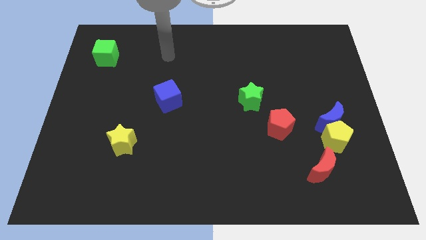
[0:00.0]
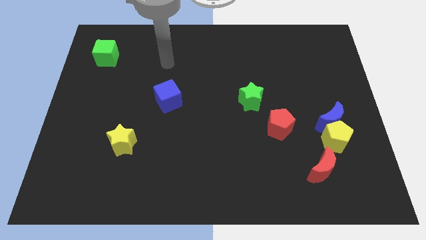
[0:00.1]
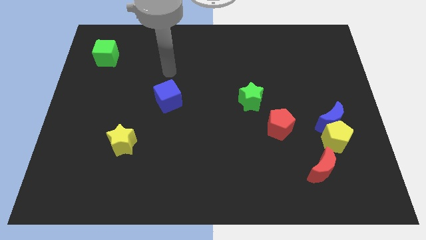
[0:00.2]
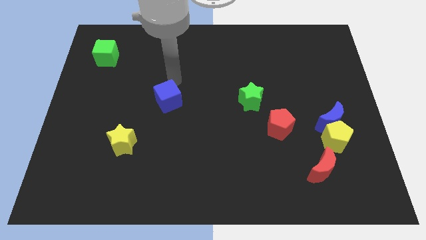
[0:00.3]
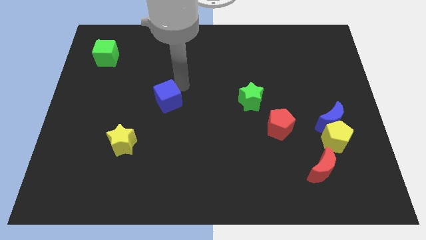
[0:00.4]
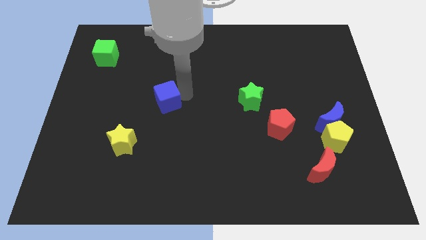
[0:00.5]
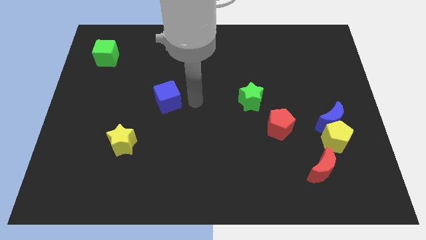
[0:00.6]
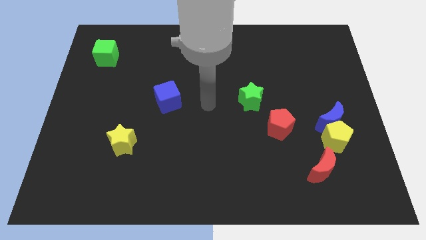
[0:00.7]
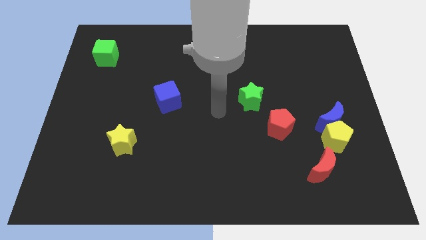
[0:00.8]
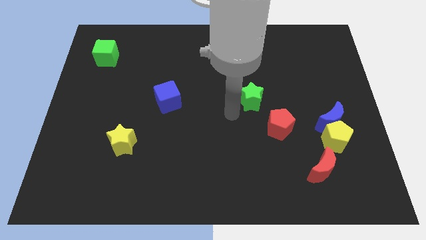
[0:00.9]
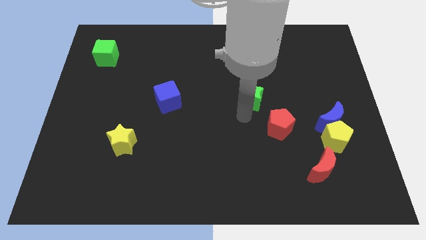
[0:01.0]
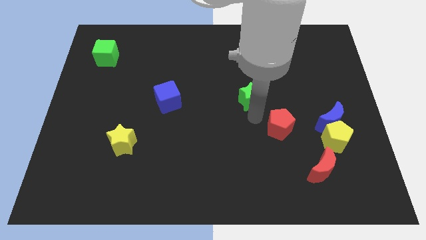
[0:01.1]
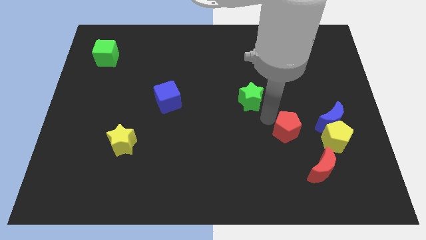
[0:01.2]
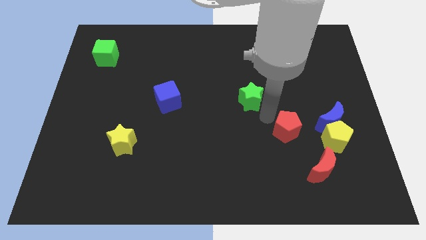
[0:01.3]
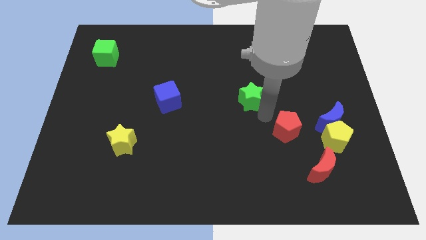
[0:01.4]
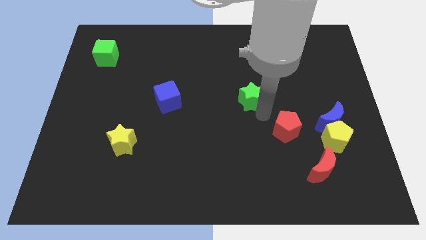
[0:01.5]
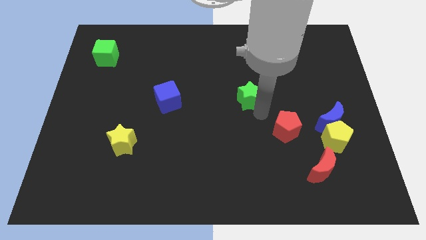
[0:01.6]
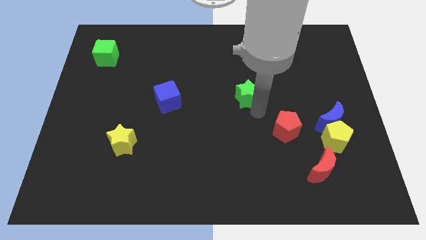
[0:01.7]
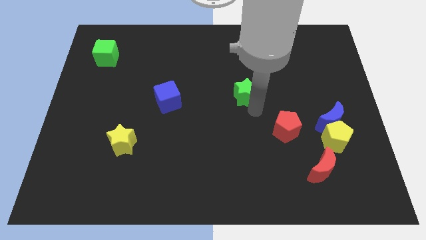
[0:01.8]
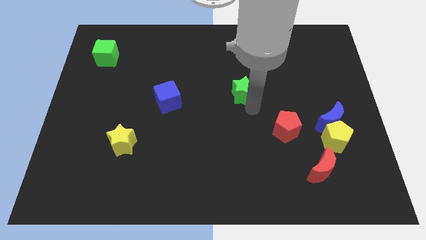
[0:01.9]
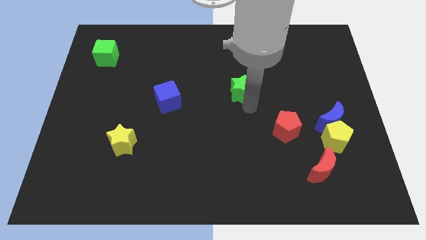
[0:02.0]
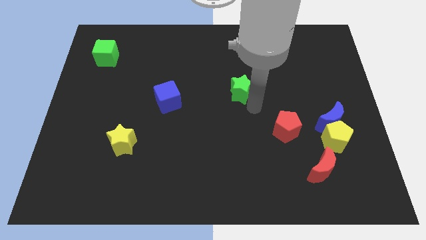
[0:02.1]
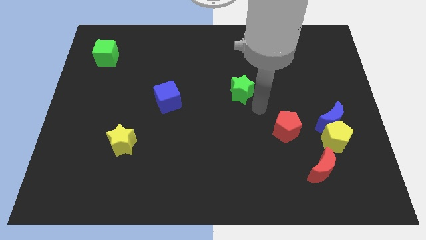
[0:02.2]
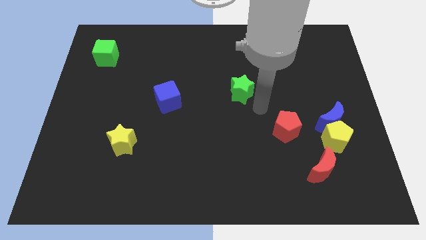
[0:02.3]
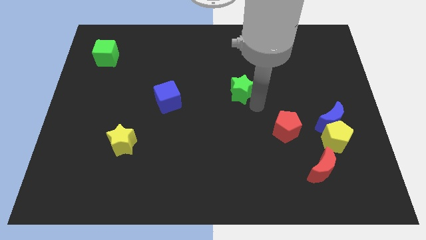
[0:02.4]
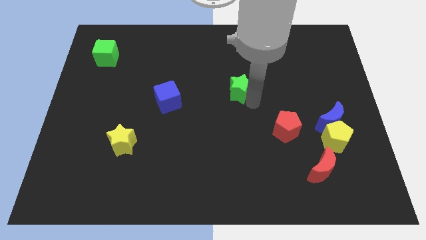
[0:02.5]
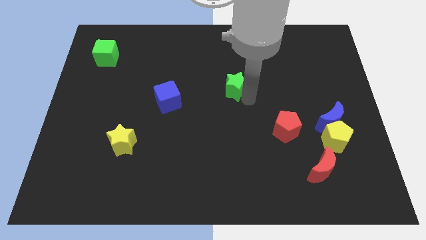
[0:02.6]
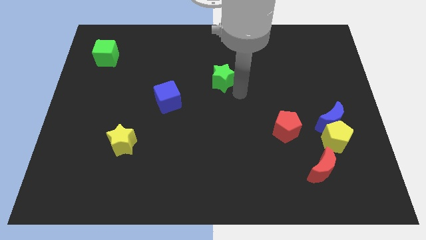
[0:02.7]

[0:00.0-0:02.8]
move the green star somewhat up and to the left

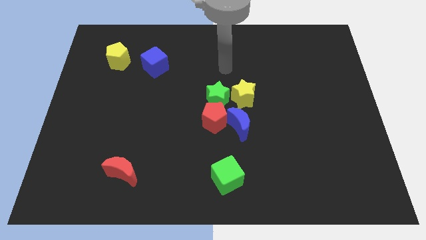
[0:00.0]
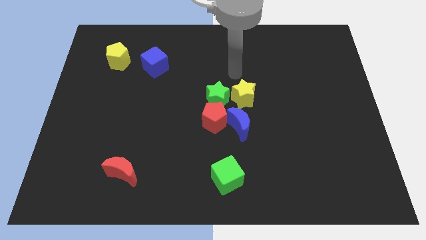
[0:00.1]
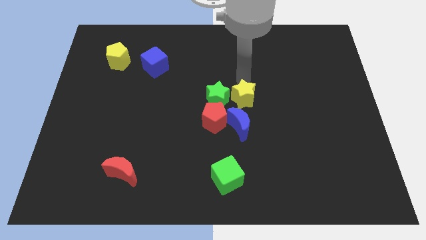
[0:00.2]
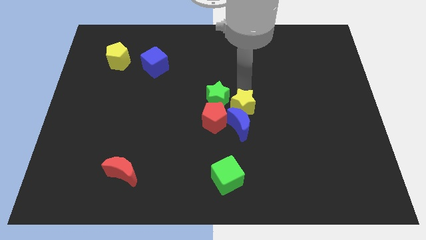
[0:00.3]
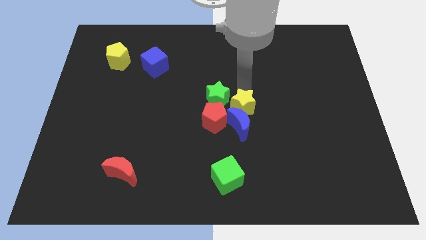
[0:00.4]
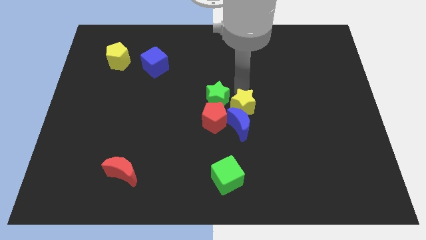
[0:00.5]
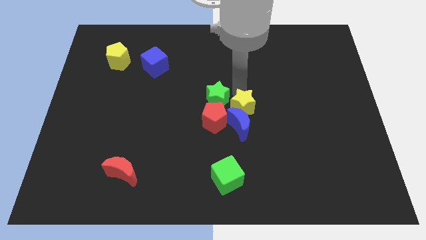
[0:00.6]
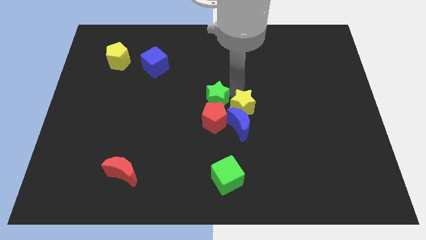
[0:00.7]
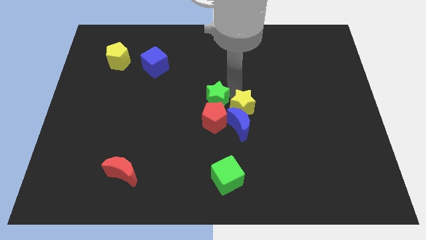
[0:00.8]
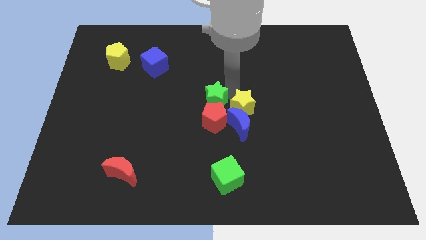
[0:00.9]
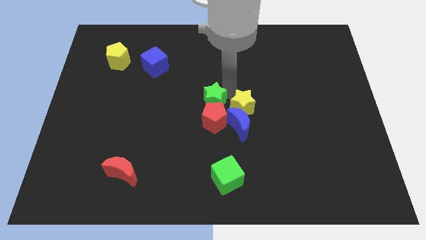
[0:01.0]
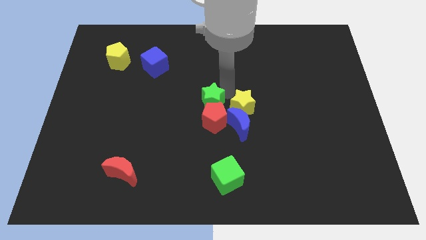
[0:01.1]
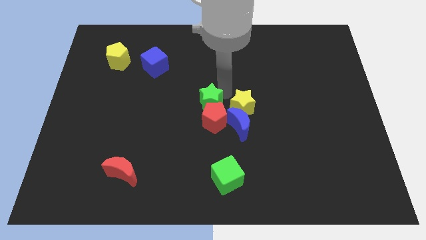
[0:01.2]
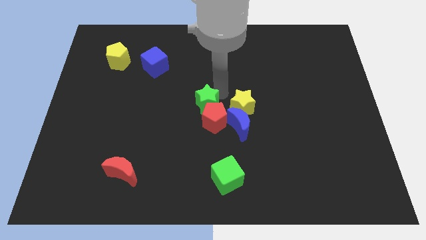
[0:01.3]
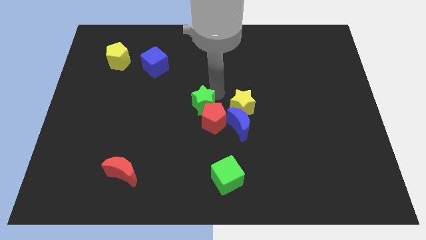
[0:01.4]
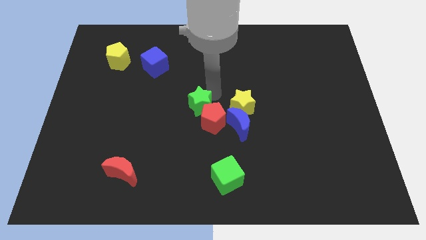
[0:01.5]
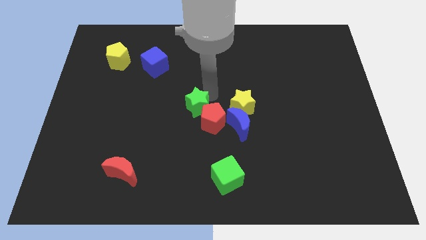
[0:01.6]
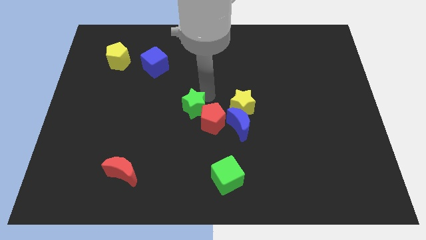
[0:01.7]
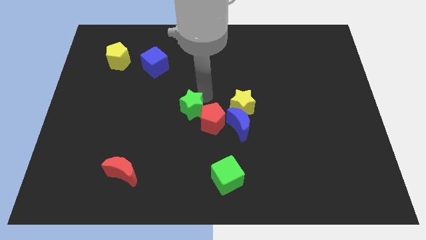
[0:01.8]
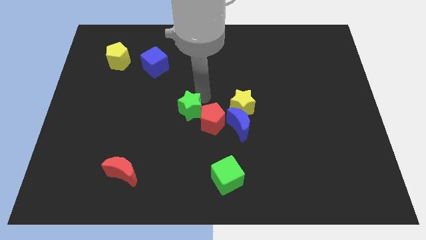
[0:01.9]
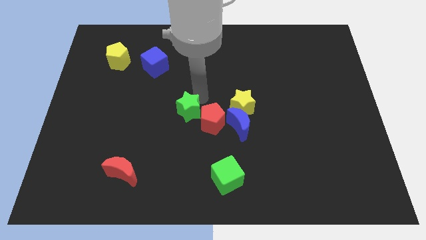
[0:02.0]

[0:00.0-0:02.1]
push the green star a little diagonally downwards and left

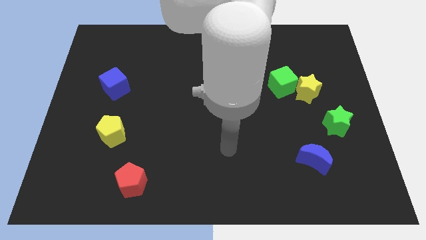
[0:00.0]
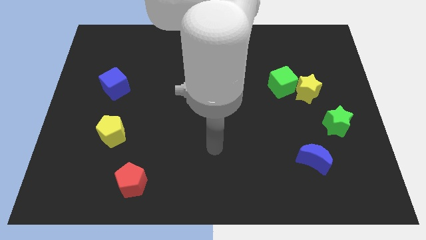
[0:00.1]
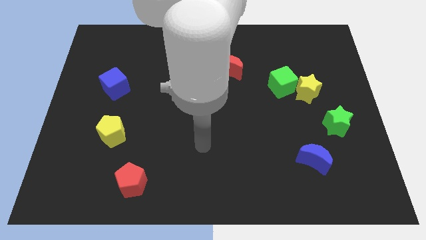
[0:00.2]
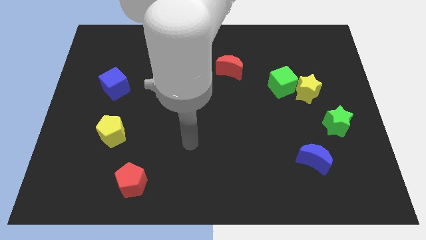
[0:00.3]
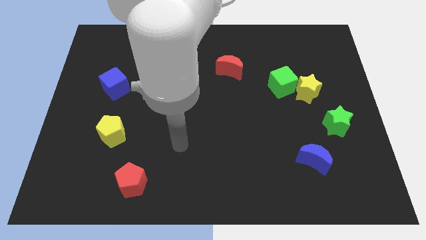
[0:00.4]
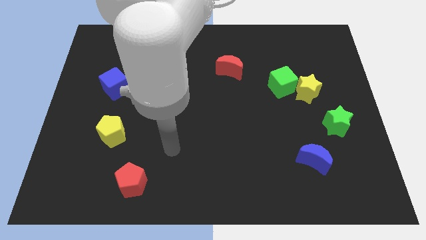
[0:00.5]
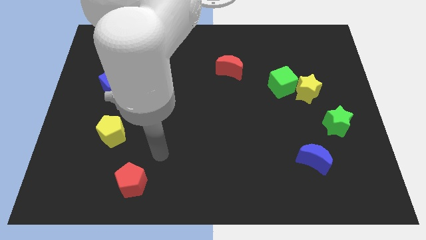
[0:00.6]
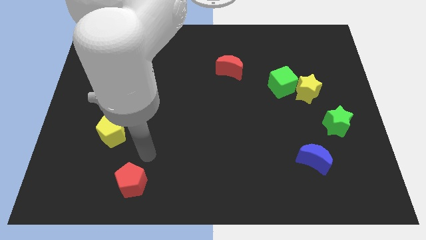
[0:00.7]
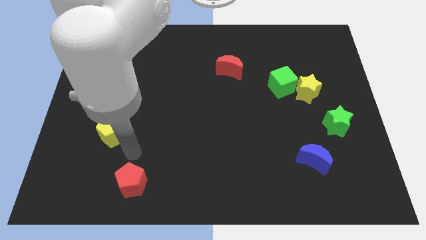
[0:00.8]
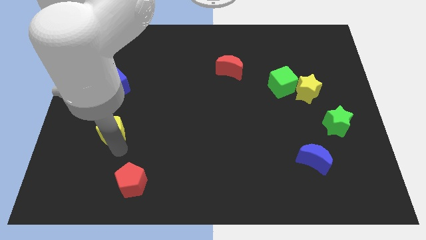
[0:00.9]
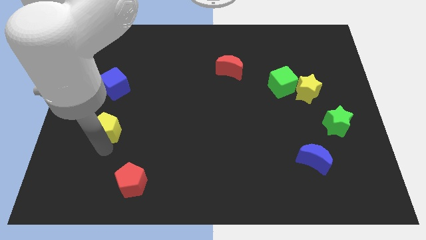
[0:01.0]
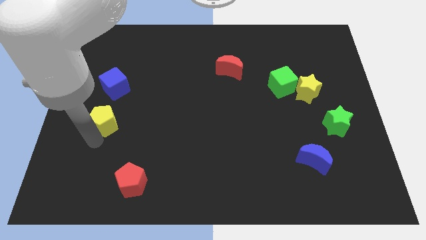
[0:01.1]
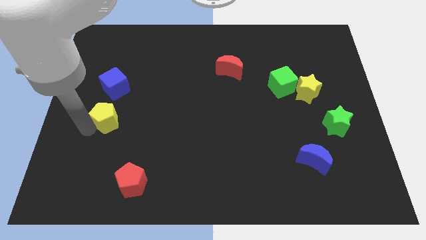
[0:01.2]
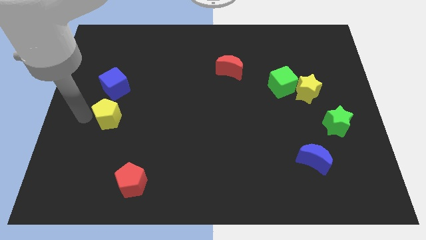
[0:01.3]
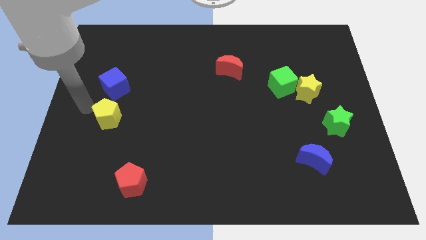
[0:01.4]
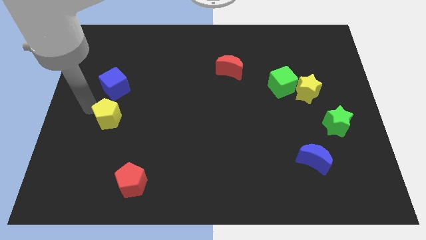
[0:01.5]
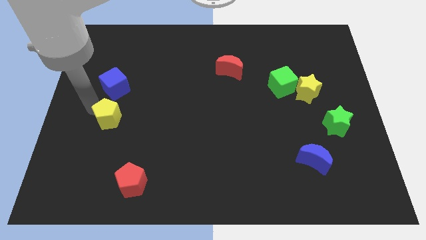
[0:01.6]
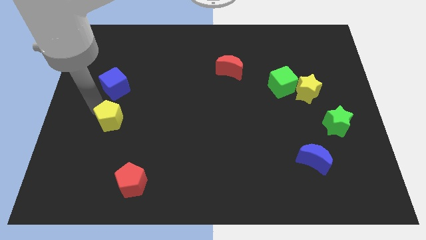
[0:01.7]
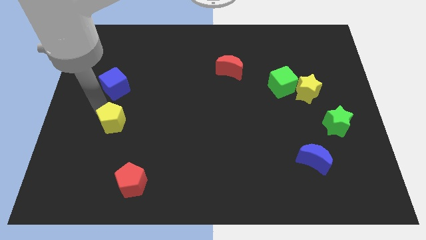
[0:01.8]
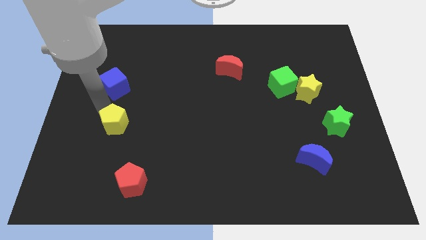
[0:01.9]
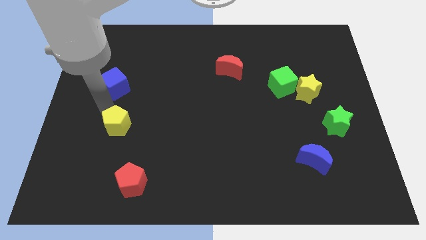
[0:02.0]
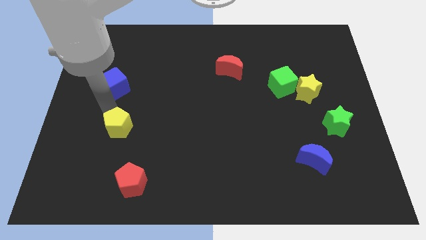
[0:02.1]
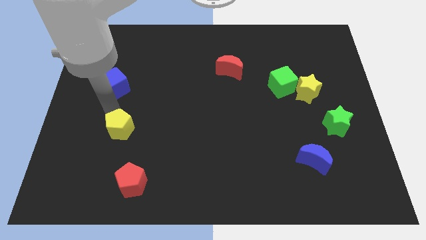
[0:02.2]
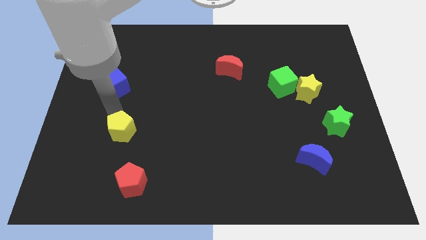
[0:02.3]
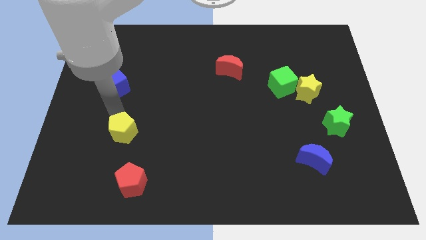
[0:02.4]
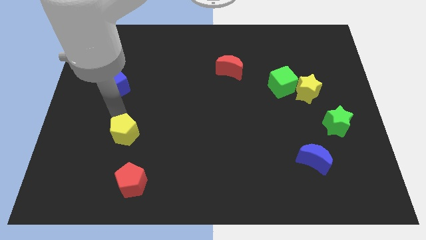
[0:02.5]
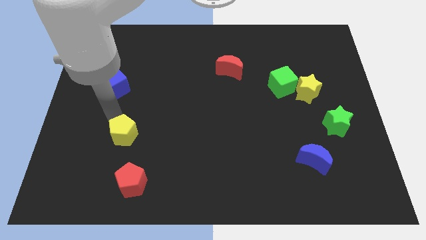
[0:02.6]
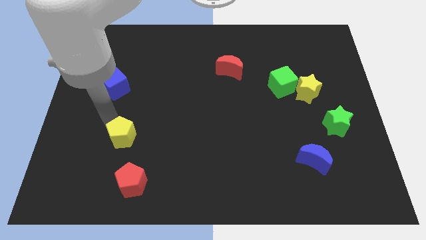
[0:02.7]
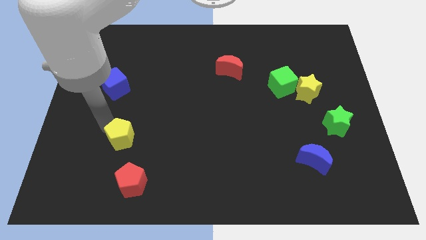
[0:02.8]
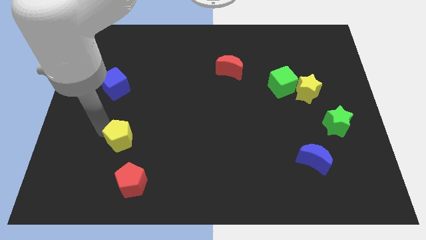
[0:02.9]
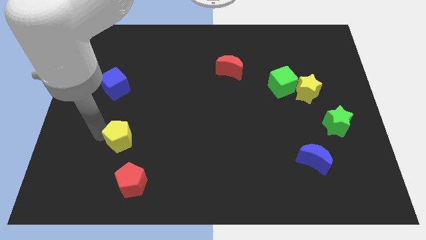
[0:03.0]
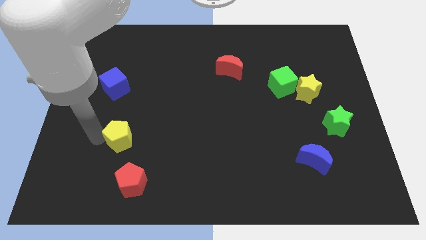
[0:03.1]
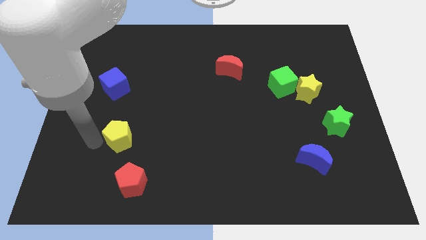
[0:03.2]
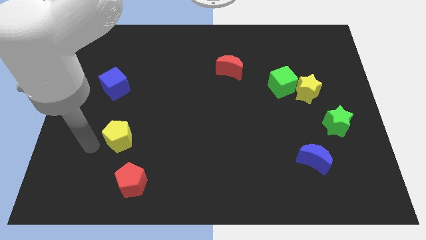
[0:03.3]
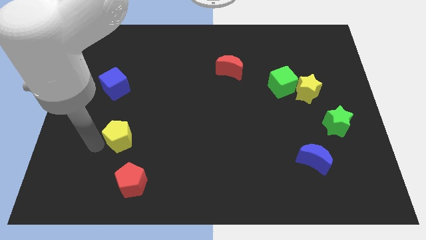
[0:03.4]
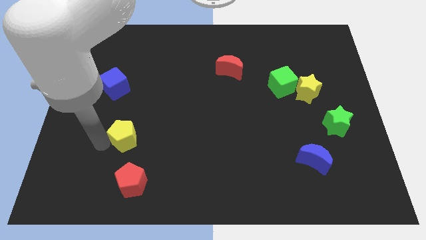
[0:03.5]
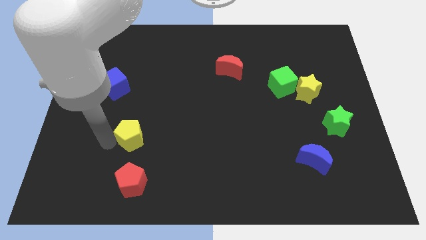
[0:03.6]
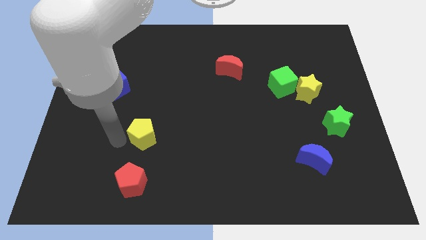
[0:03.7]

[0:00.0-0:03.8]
move the yellow pentagon right a bit
